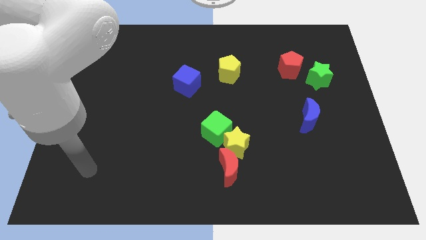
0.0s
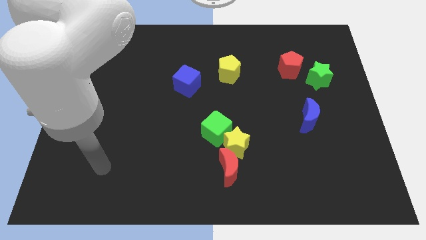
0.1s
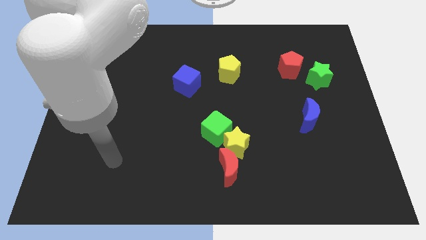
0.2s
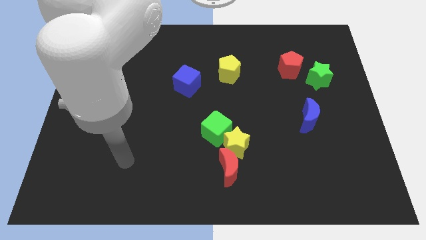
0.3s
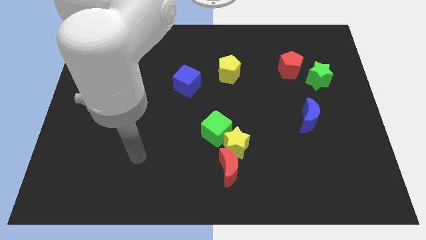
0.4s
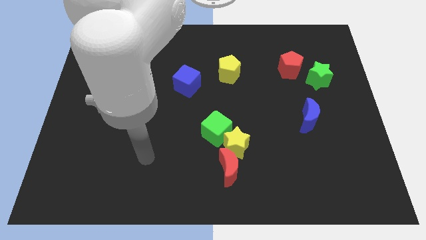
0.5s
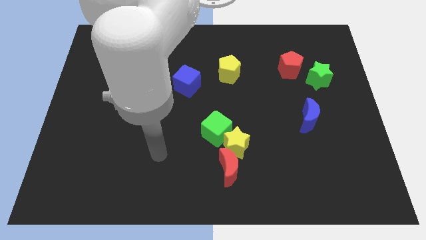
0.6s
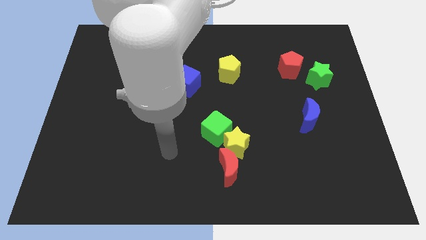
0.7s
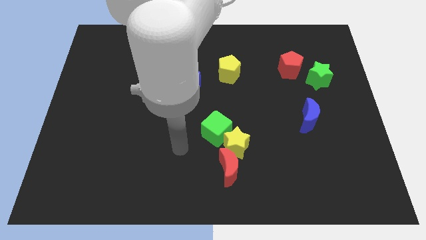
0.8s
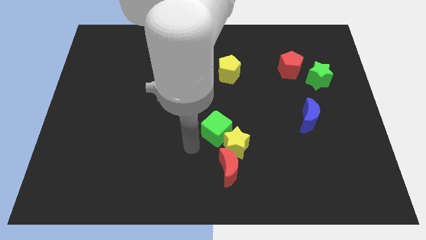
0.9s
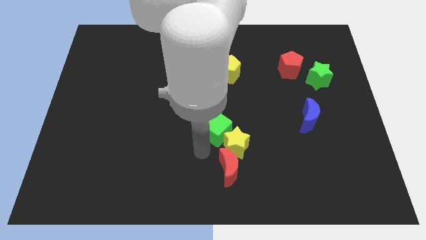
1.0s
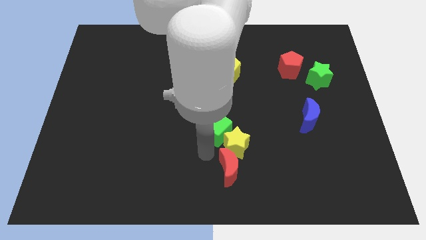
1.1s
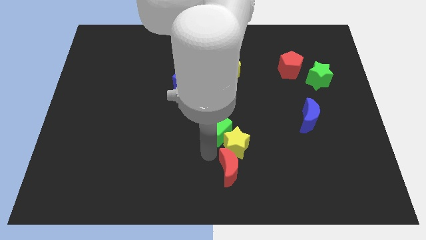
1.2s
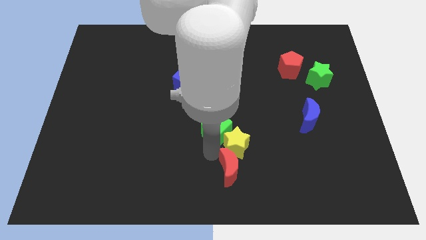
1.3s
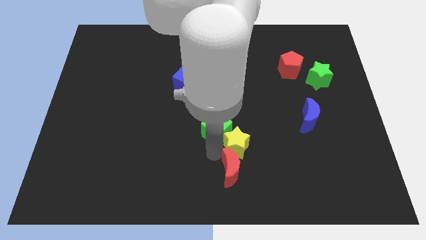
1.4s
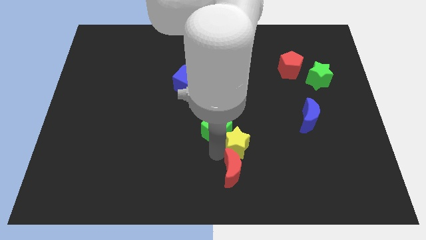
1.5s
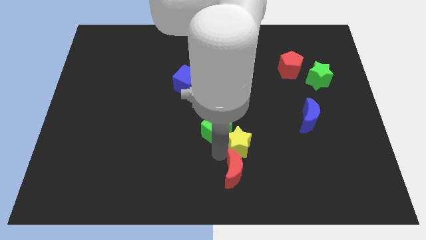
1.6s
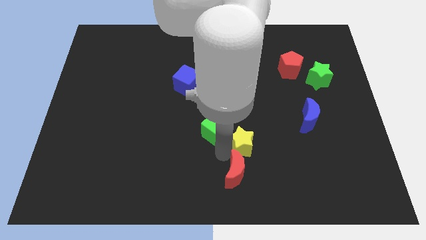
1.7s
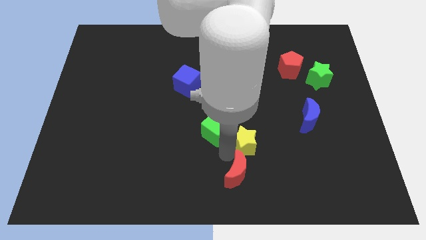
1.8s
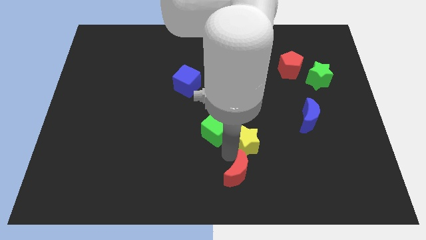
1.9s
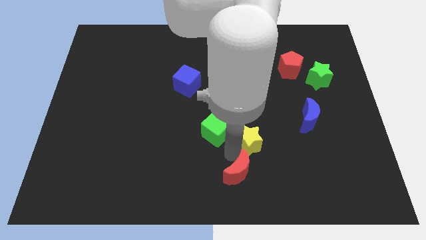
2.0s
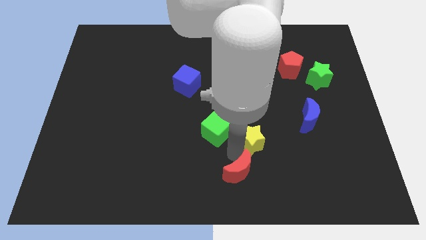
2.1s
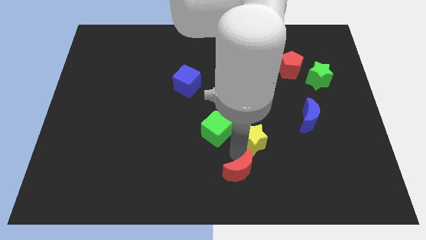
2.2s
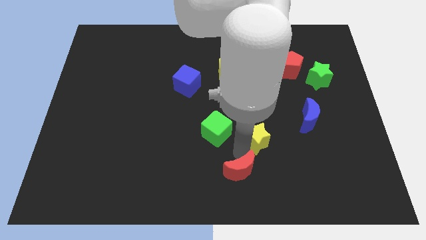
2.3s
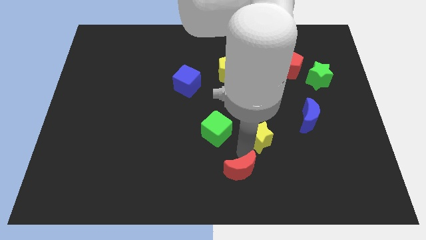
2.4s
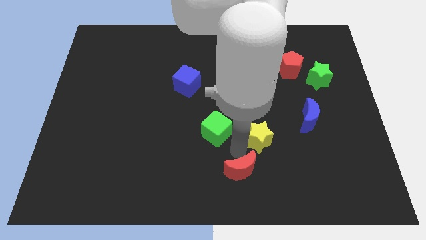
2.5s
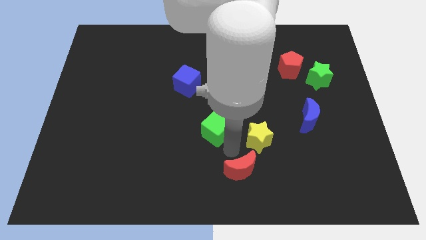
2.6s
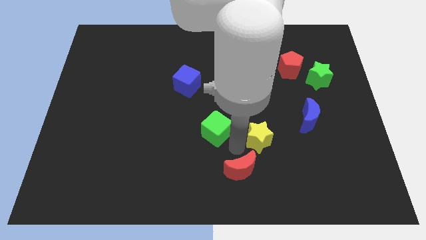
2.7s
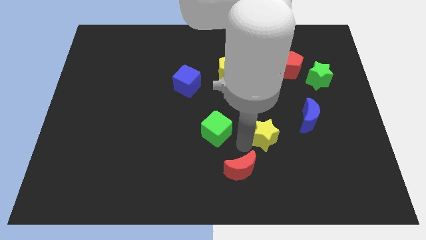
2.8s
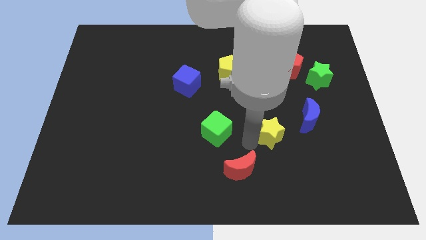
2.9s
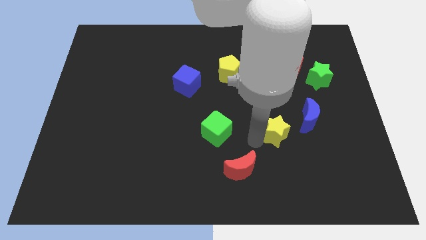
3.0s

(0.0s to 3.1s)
pull the yellow star apart from the green cube and red moon

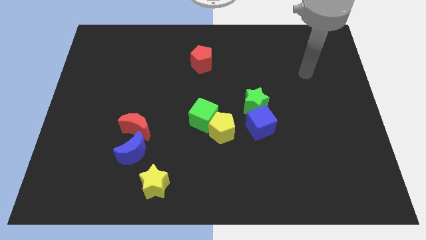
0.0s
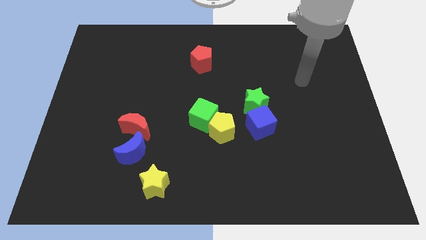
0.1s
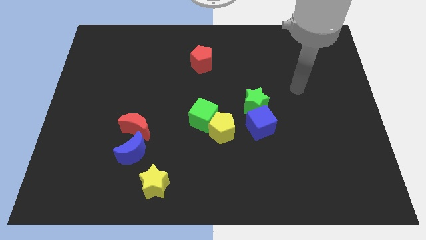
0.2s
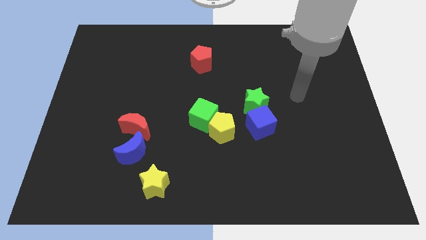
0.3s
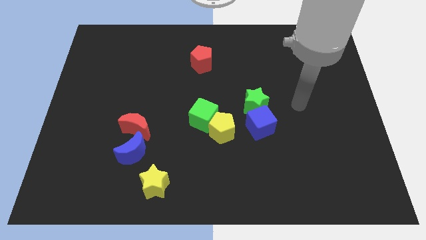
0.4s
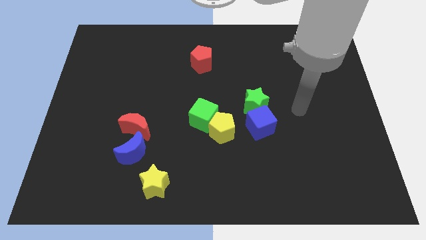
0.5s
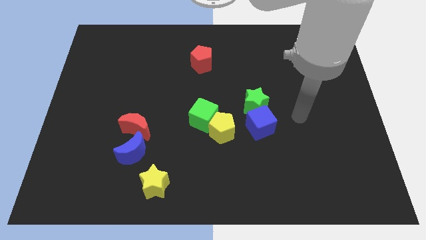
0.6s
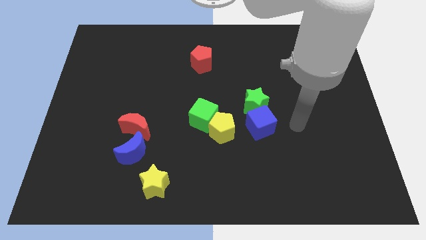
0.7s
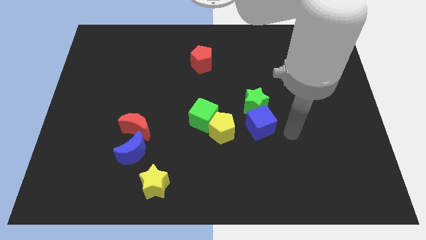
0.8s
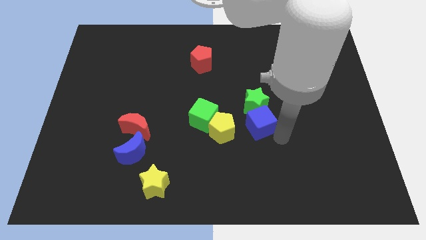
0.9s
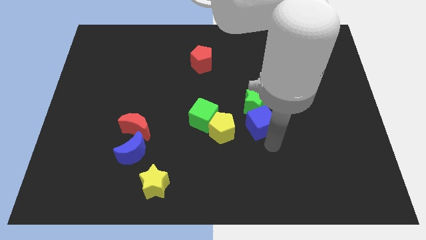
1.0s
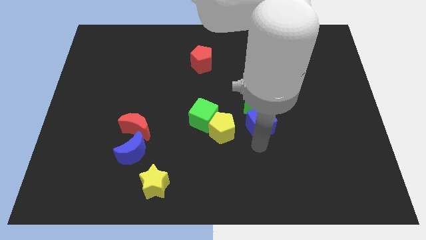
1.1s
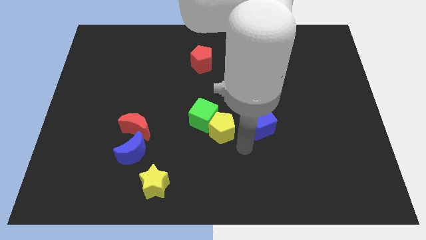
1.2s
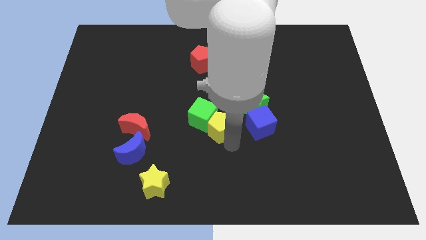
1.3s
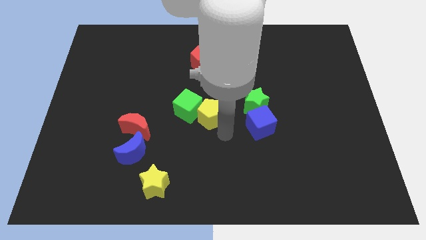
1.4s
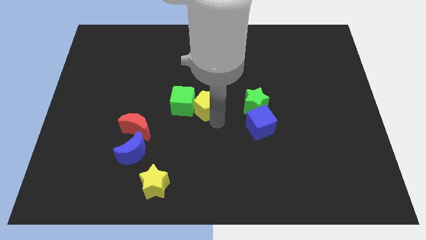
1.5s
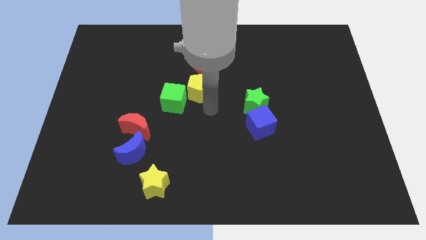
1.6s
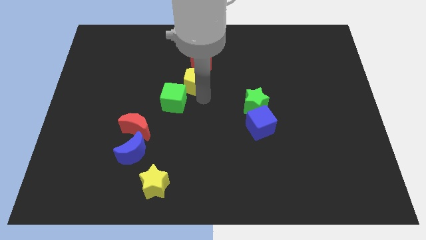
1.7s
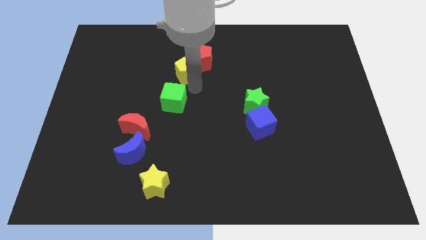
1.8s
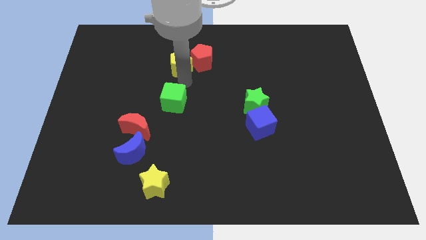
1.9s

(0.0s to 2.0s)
pull the green cube apart from the yellow pentagon

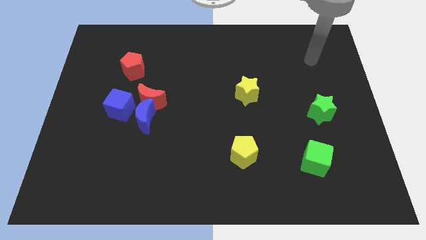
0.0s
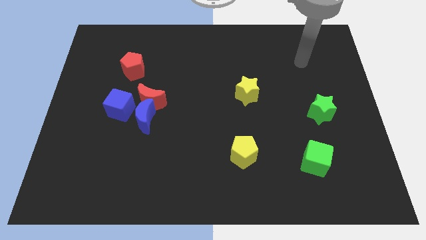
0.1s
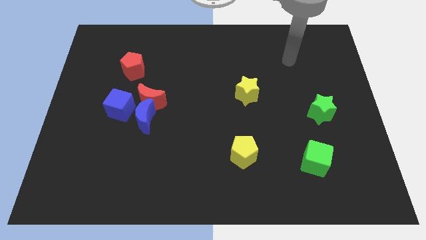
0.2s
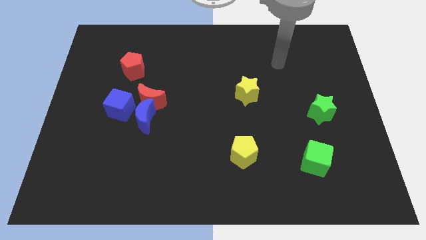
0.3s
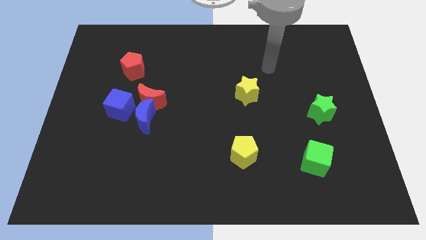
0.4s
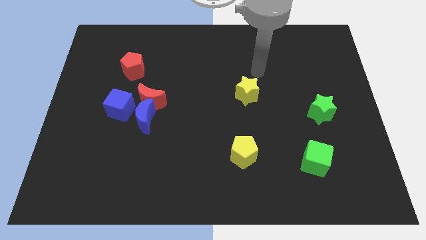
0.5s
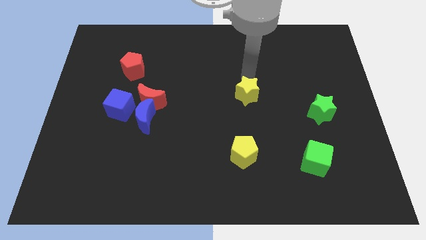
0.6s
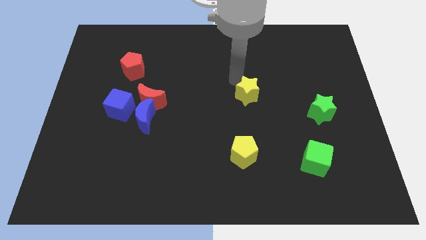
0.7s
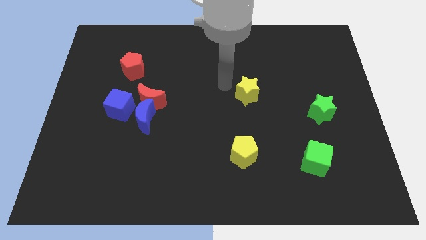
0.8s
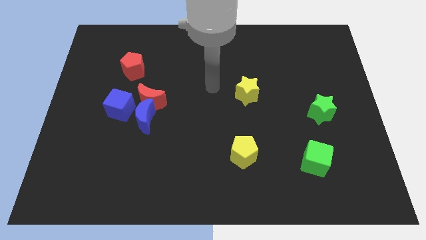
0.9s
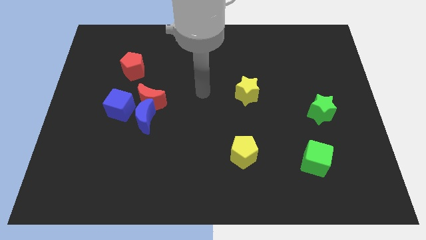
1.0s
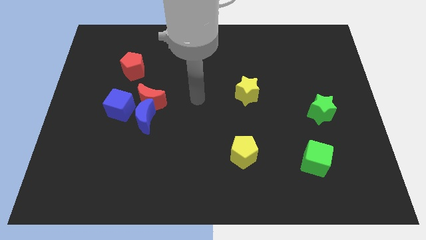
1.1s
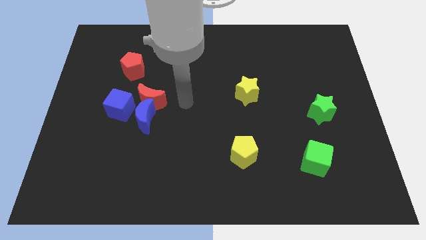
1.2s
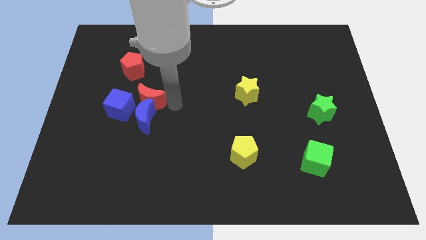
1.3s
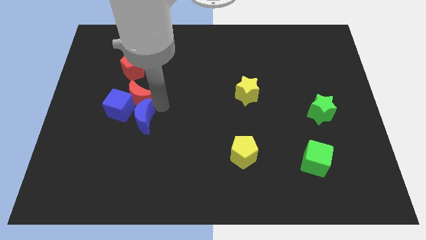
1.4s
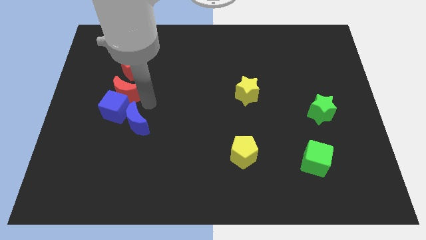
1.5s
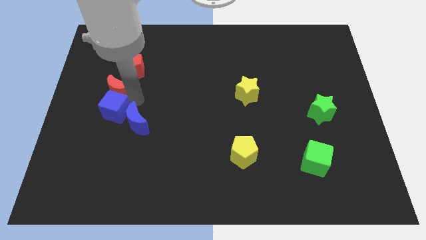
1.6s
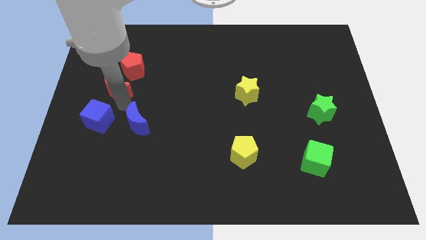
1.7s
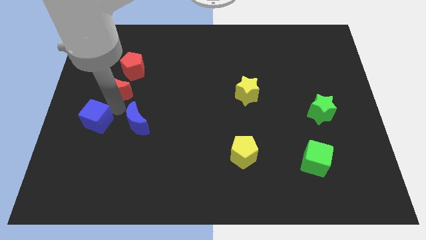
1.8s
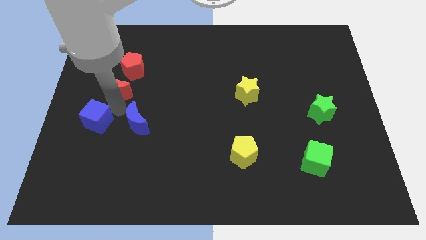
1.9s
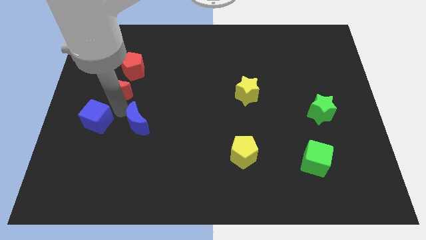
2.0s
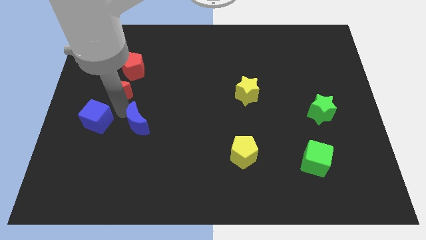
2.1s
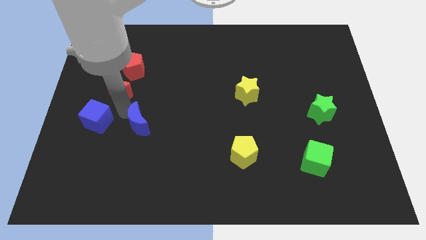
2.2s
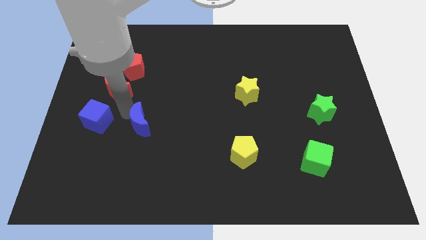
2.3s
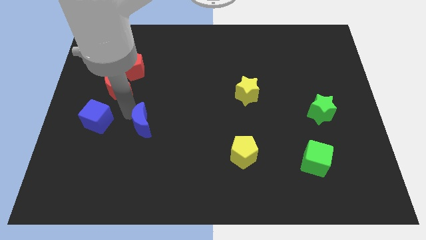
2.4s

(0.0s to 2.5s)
separate the blue moon from the red moon and blue cube

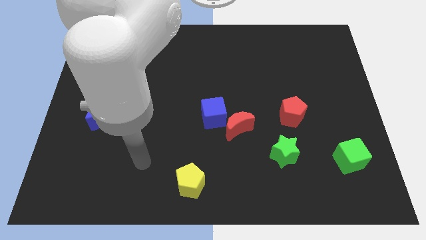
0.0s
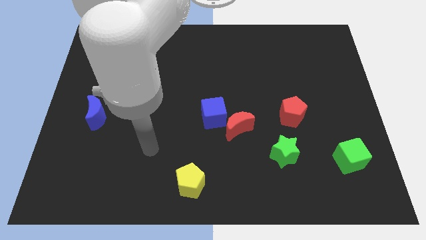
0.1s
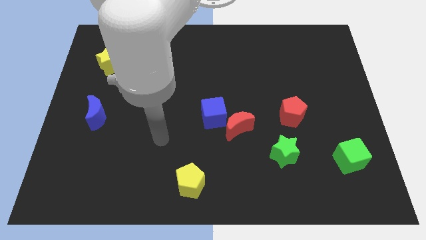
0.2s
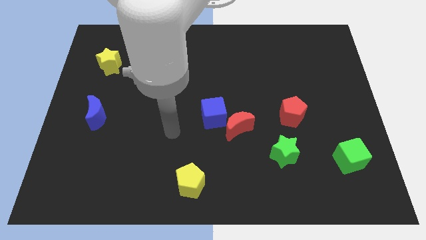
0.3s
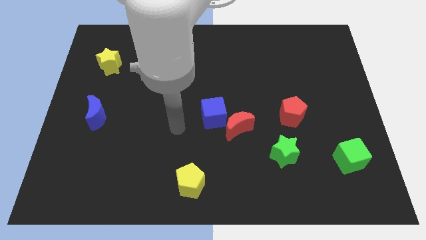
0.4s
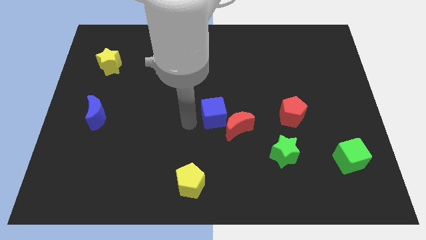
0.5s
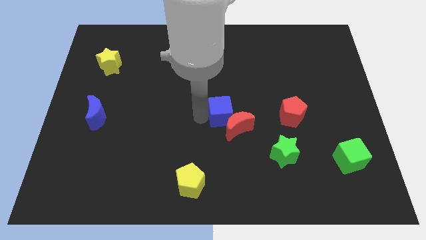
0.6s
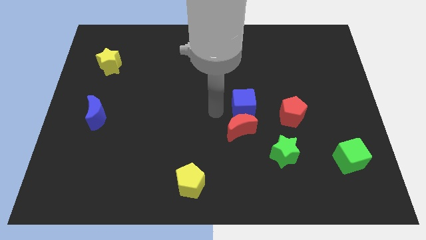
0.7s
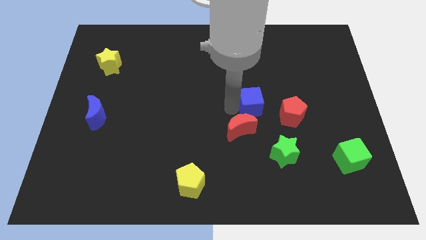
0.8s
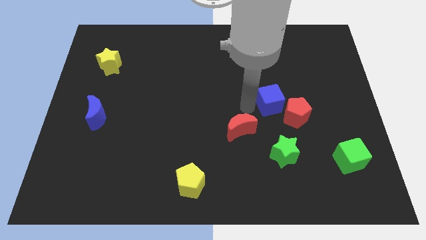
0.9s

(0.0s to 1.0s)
pull the red moon apart from the blue cube

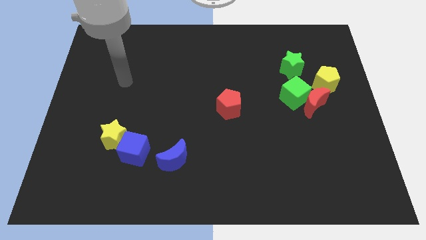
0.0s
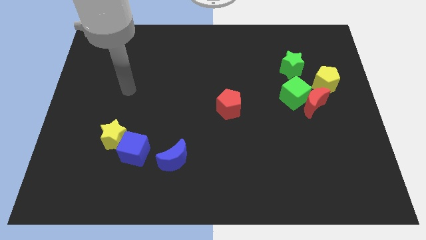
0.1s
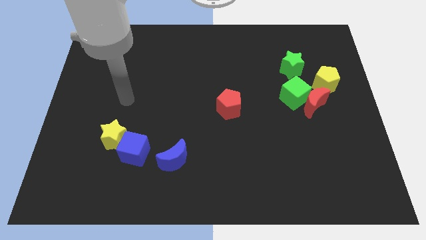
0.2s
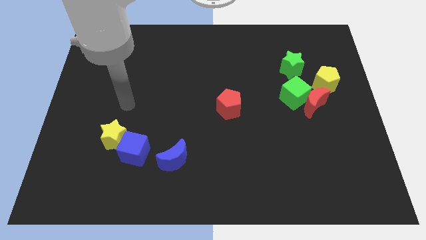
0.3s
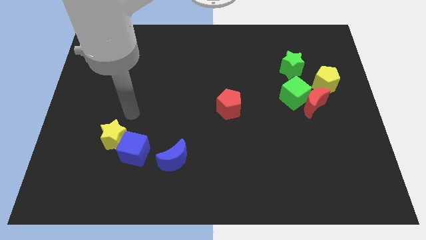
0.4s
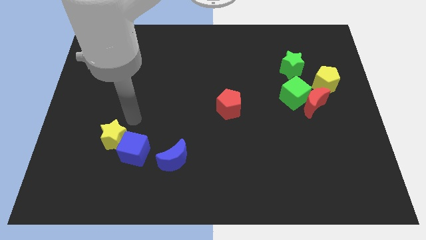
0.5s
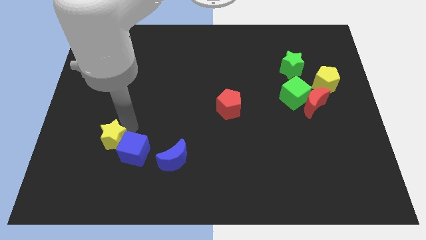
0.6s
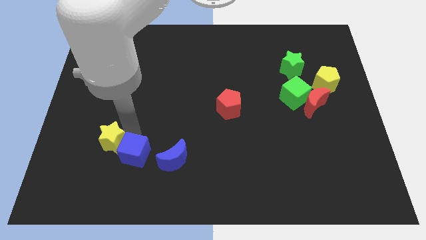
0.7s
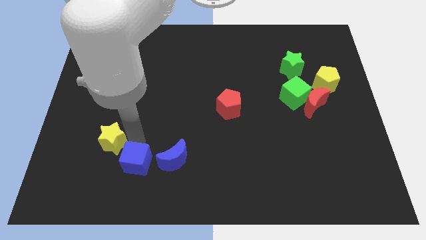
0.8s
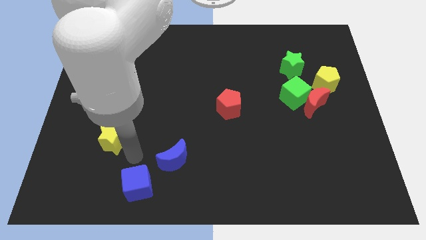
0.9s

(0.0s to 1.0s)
pull the yellow star apart from the blue cube
